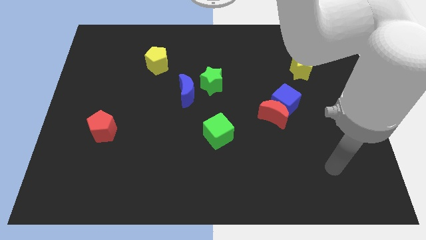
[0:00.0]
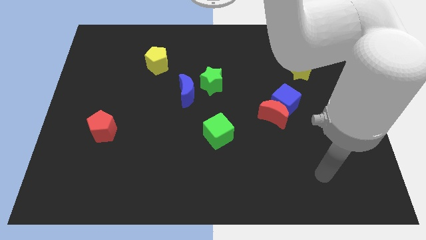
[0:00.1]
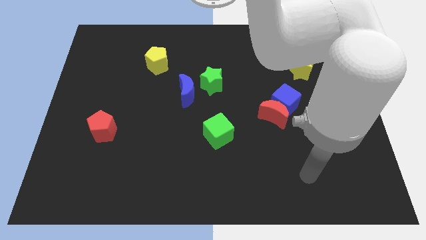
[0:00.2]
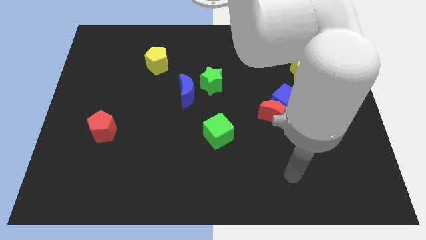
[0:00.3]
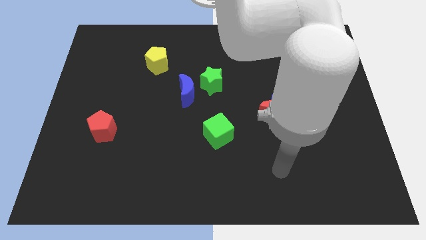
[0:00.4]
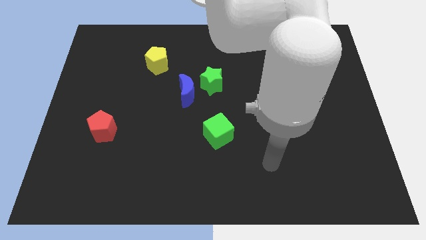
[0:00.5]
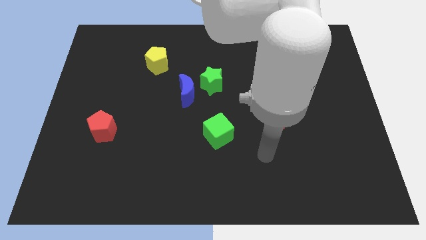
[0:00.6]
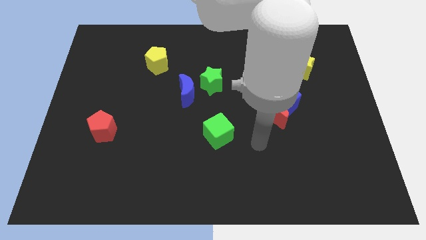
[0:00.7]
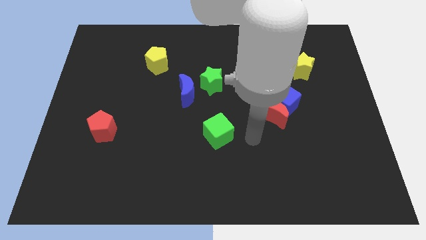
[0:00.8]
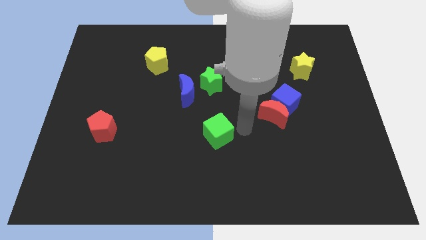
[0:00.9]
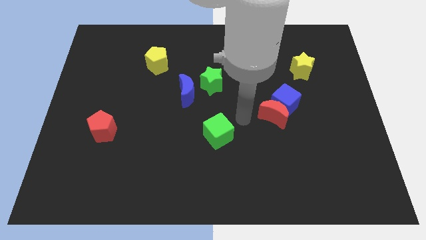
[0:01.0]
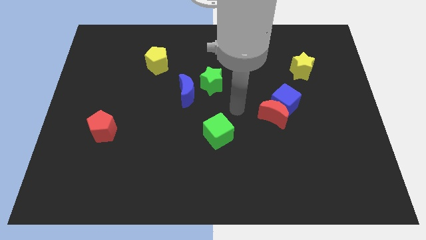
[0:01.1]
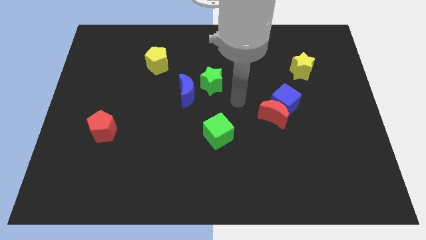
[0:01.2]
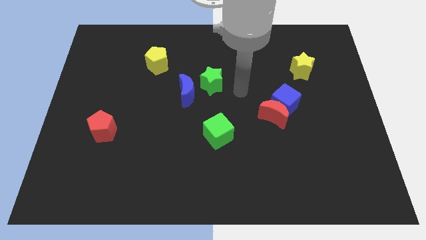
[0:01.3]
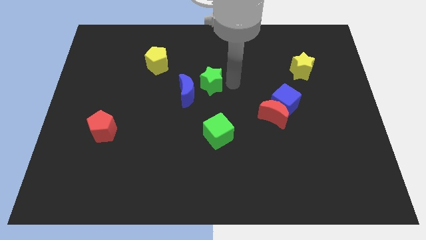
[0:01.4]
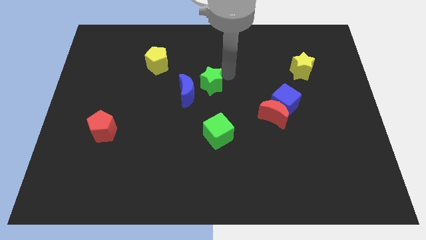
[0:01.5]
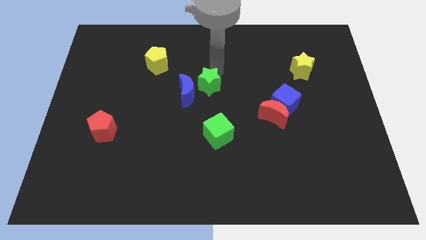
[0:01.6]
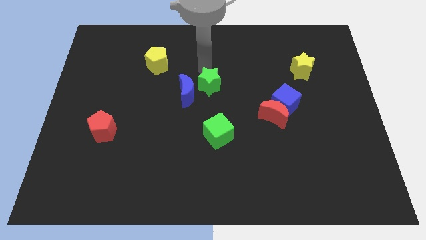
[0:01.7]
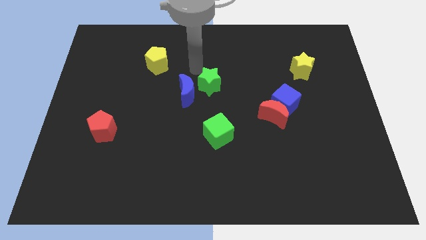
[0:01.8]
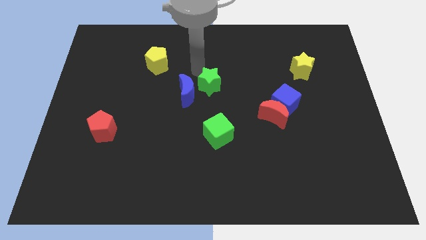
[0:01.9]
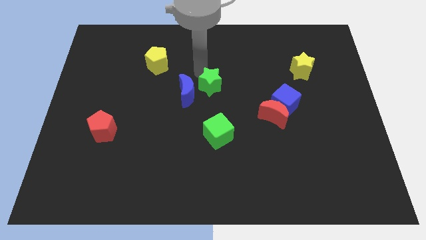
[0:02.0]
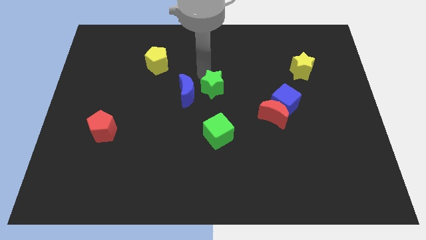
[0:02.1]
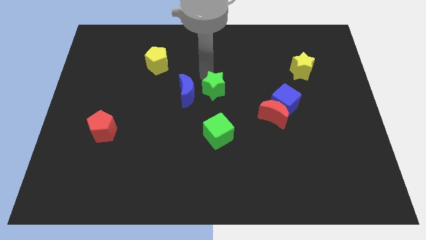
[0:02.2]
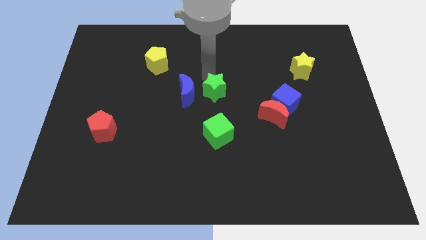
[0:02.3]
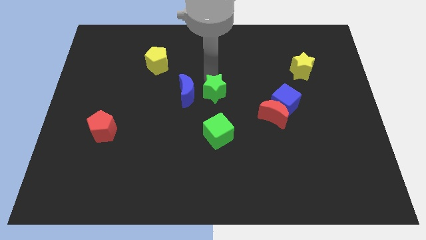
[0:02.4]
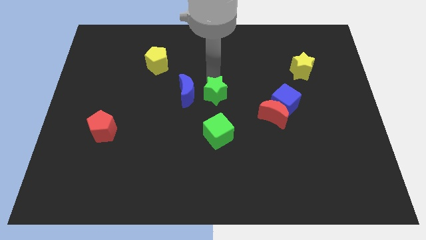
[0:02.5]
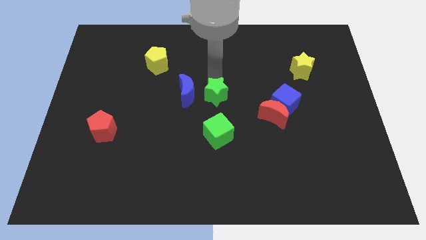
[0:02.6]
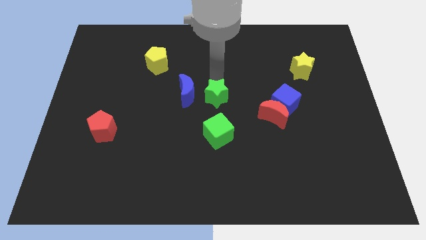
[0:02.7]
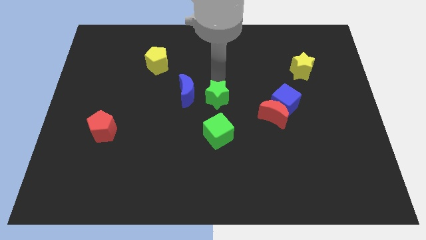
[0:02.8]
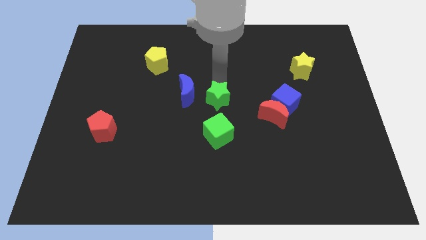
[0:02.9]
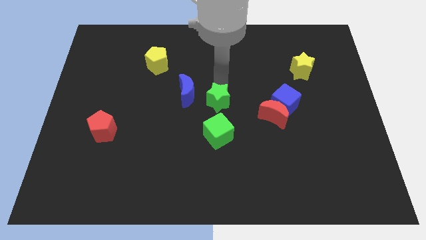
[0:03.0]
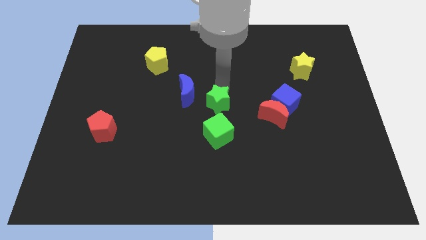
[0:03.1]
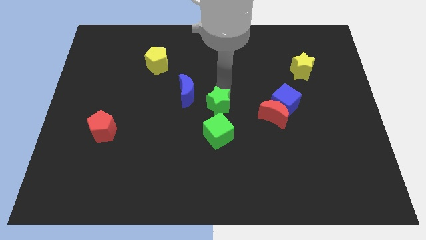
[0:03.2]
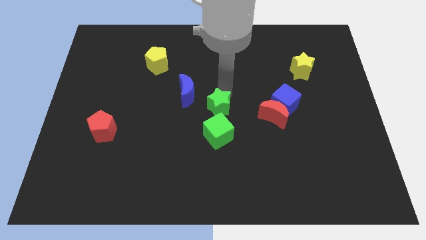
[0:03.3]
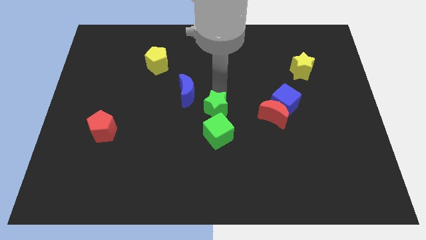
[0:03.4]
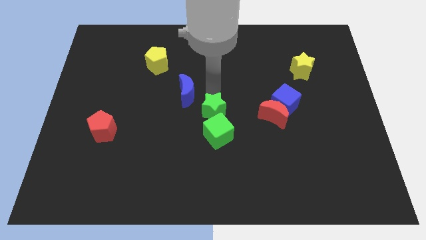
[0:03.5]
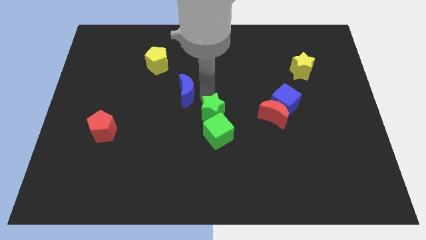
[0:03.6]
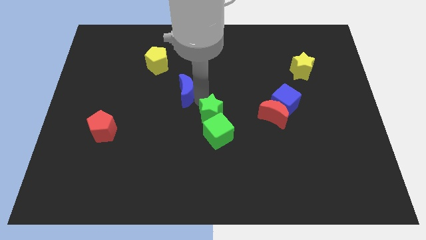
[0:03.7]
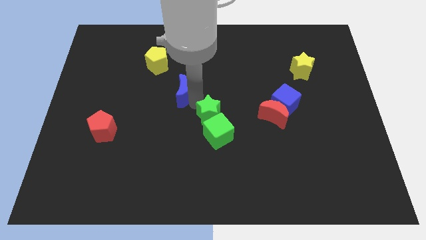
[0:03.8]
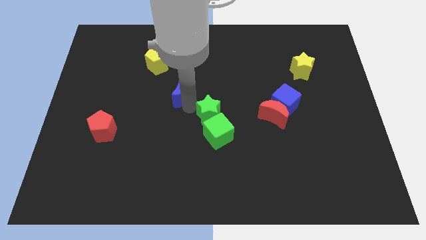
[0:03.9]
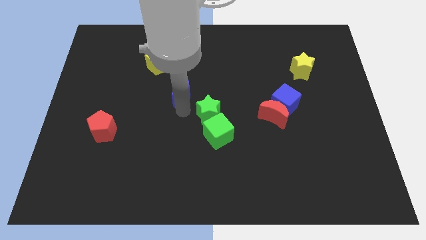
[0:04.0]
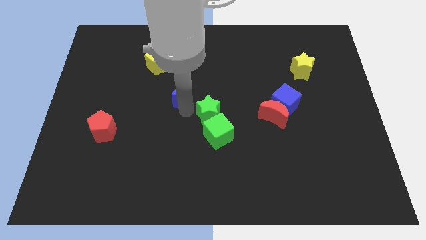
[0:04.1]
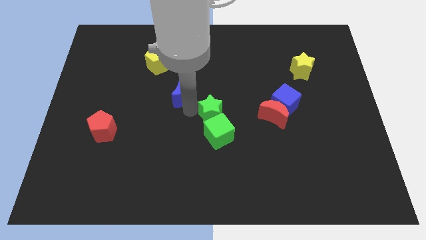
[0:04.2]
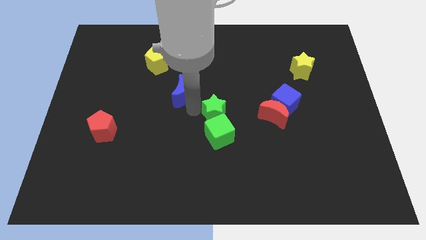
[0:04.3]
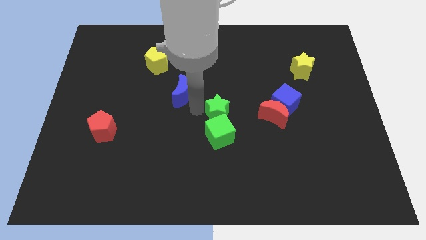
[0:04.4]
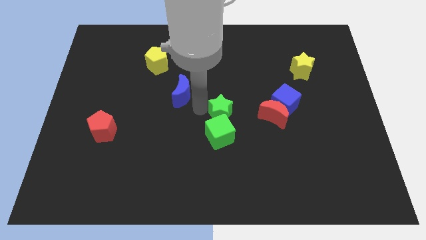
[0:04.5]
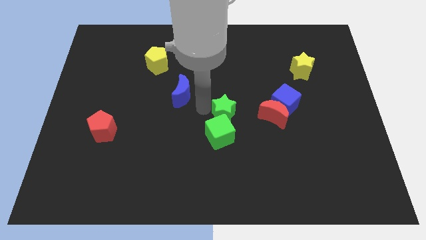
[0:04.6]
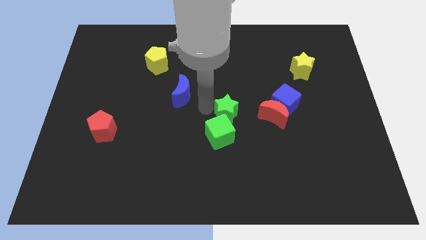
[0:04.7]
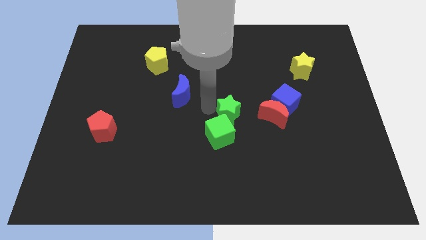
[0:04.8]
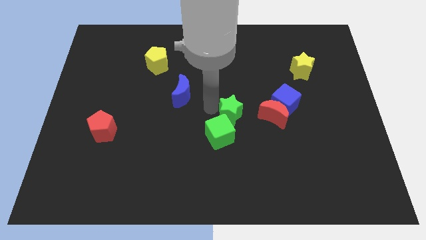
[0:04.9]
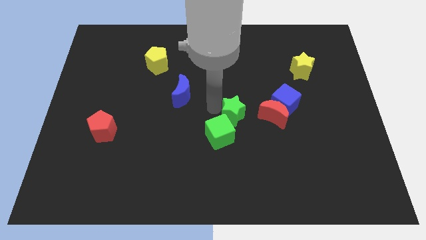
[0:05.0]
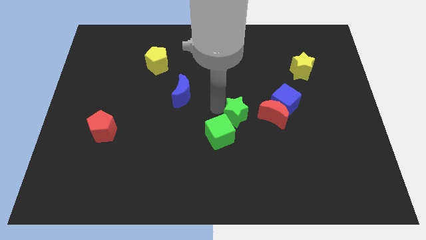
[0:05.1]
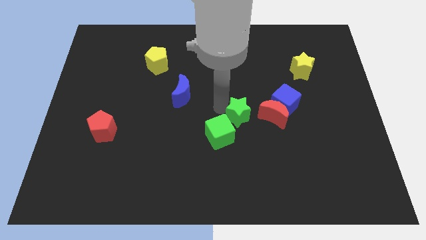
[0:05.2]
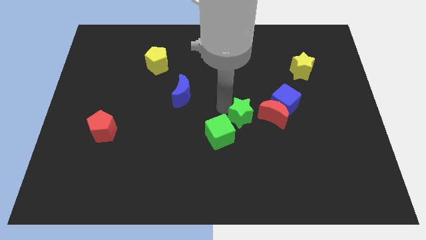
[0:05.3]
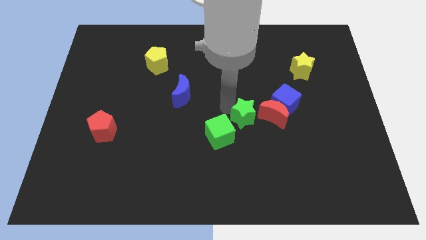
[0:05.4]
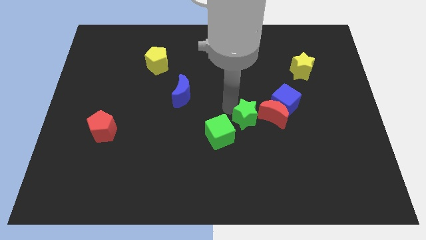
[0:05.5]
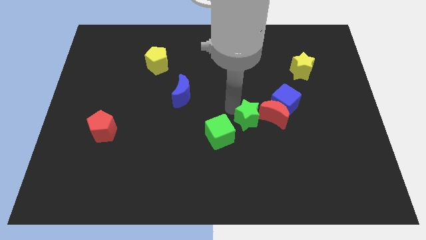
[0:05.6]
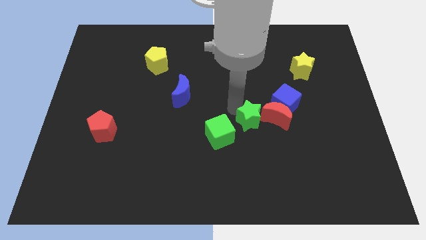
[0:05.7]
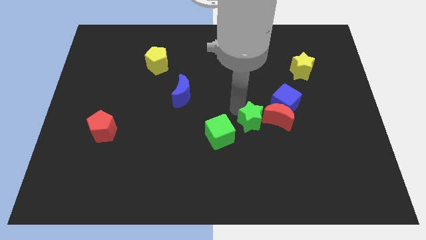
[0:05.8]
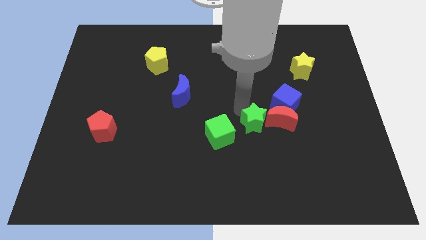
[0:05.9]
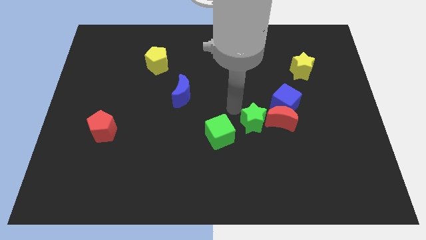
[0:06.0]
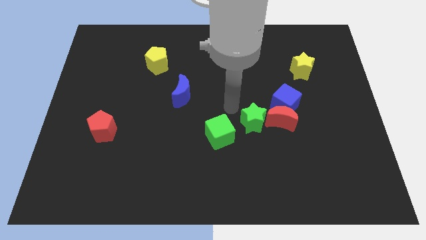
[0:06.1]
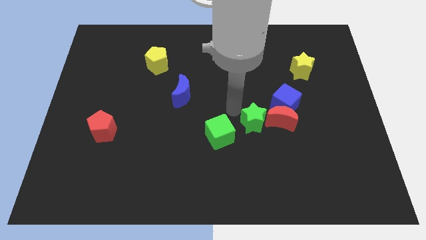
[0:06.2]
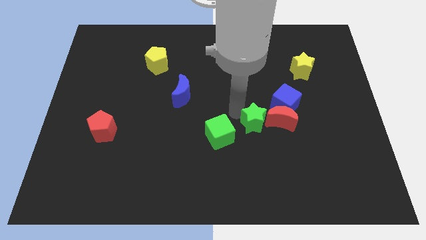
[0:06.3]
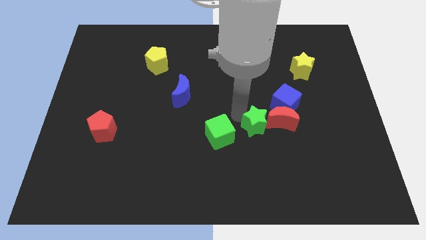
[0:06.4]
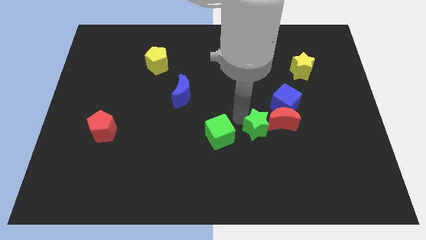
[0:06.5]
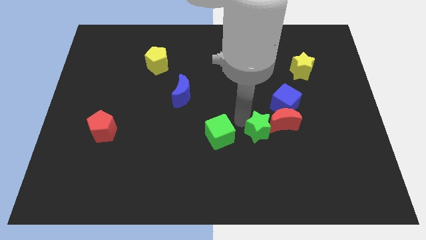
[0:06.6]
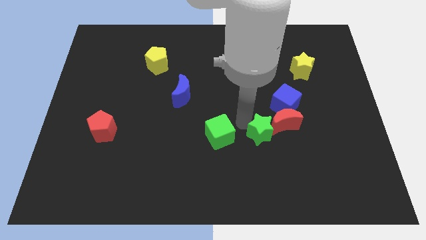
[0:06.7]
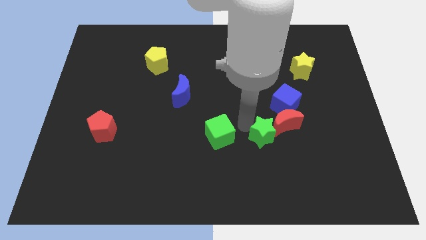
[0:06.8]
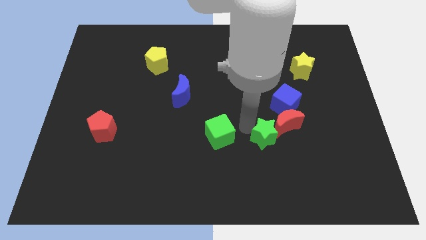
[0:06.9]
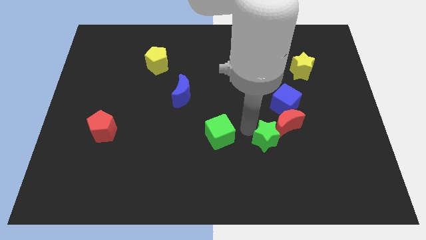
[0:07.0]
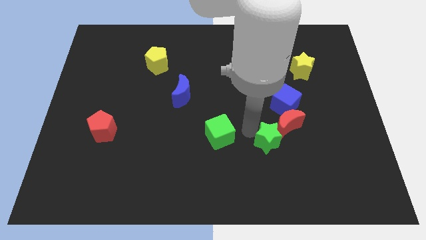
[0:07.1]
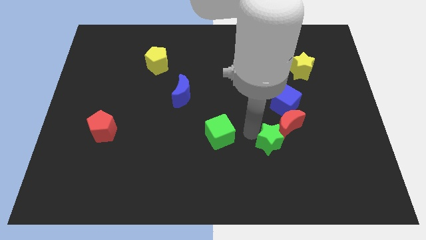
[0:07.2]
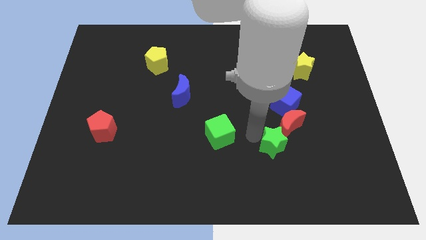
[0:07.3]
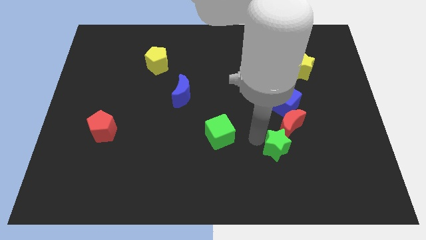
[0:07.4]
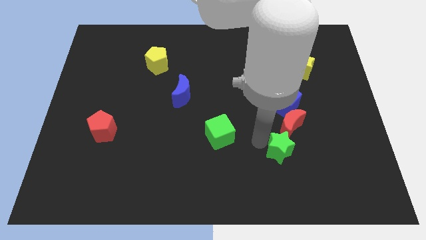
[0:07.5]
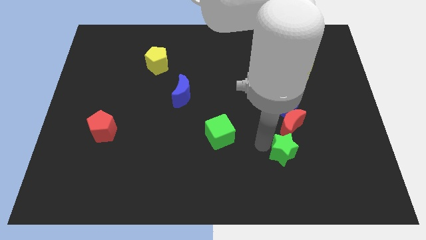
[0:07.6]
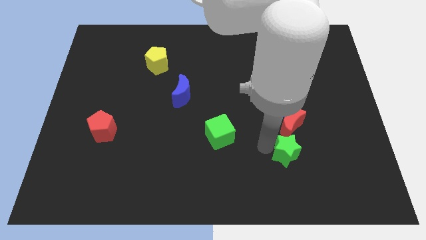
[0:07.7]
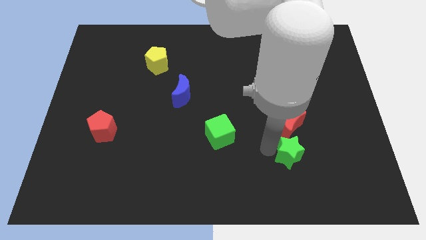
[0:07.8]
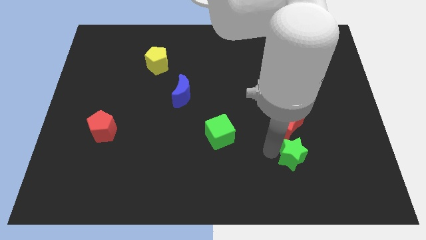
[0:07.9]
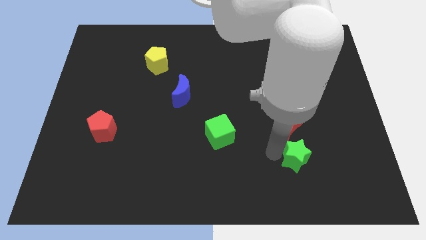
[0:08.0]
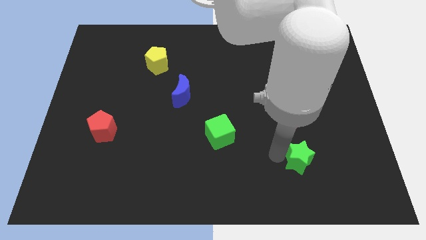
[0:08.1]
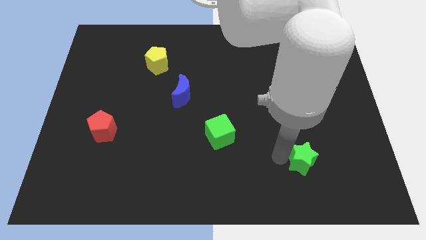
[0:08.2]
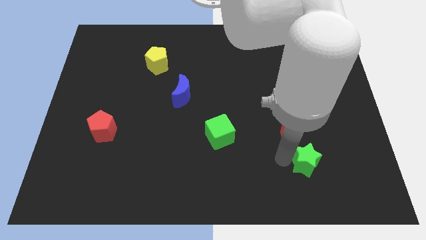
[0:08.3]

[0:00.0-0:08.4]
slide the green star diagonally down and to the right of the red moon
